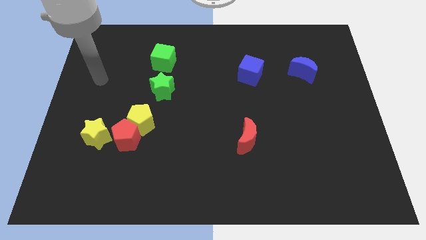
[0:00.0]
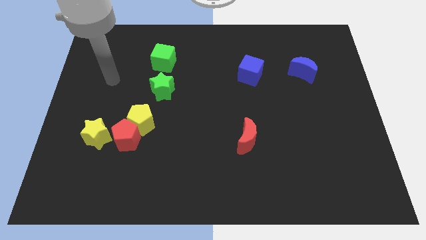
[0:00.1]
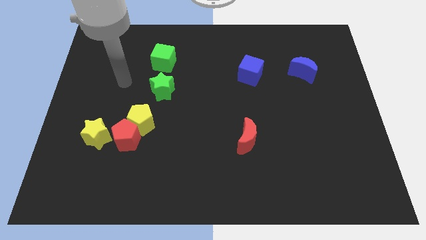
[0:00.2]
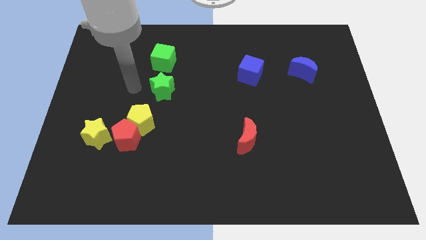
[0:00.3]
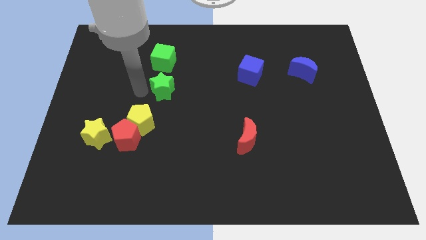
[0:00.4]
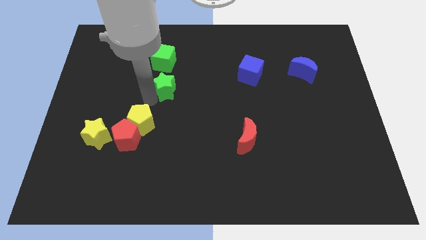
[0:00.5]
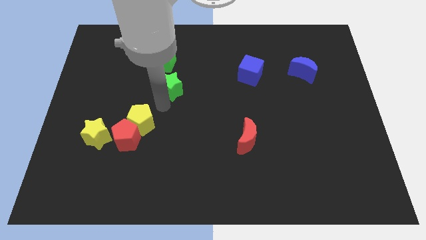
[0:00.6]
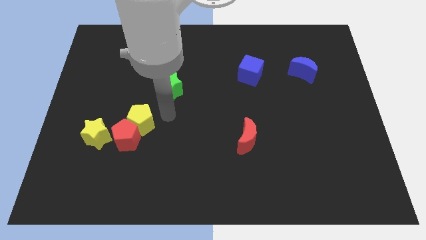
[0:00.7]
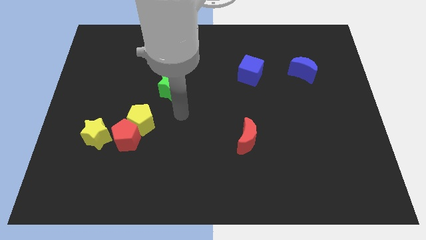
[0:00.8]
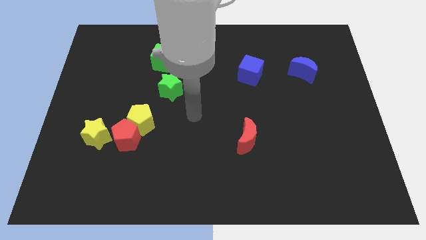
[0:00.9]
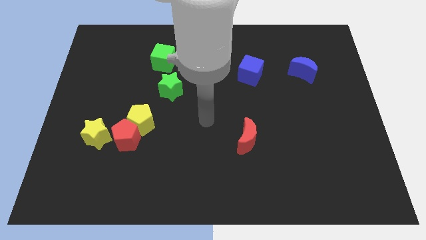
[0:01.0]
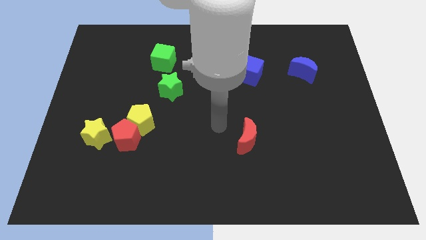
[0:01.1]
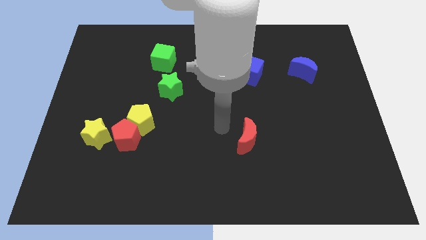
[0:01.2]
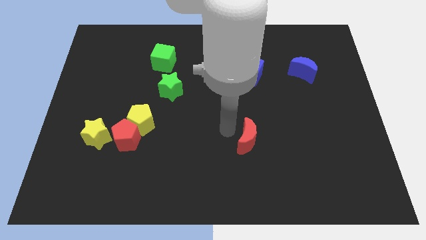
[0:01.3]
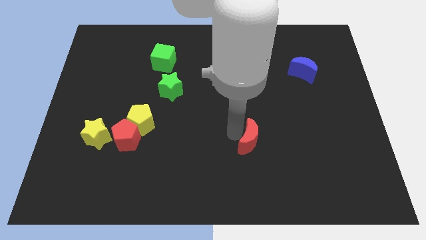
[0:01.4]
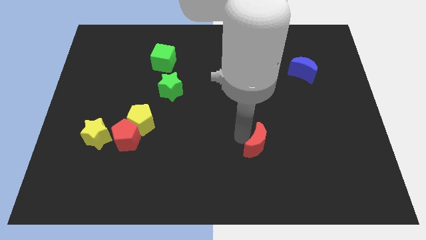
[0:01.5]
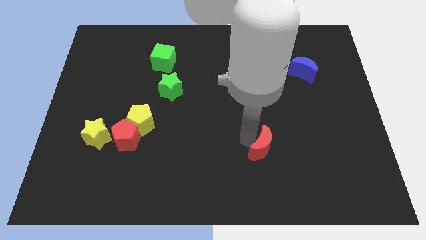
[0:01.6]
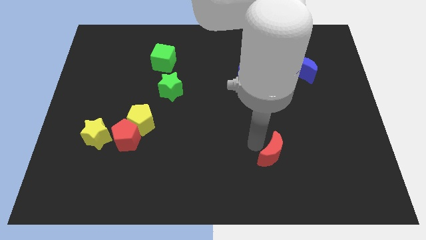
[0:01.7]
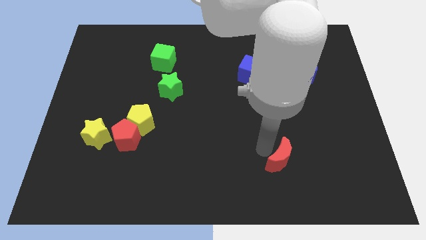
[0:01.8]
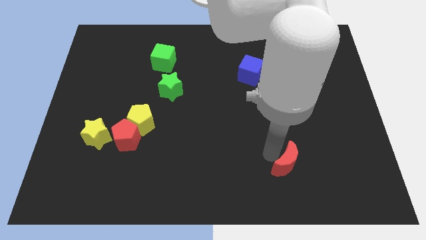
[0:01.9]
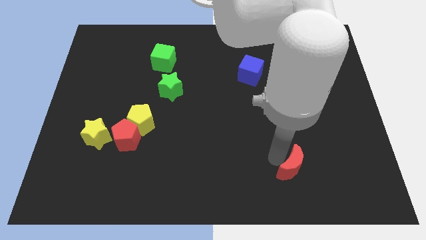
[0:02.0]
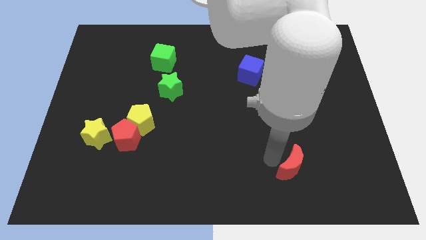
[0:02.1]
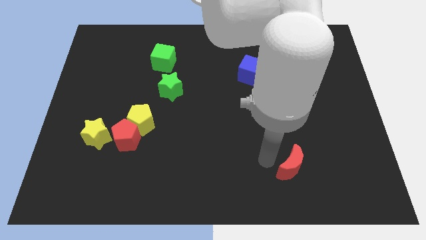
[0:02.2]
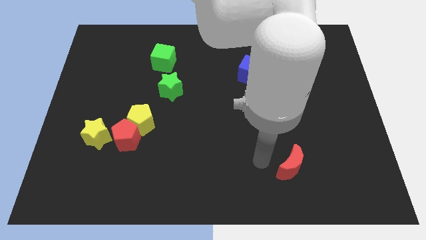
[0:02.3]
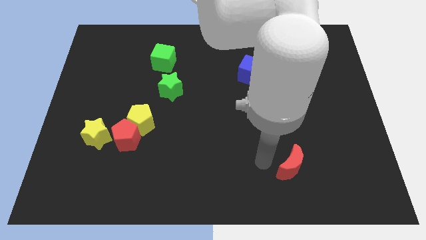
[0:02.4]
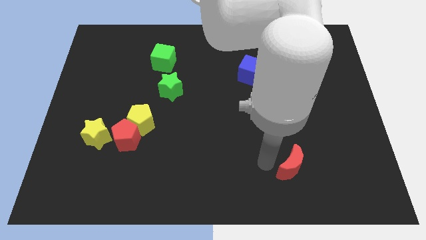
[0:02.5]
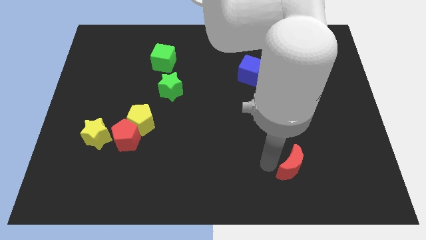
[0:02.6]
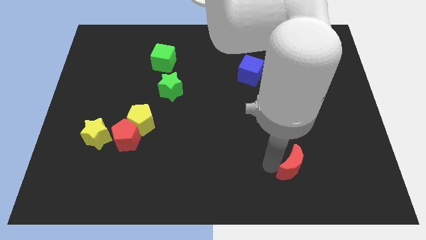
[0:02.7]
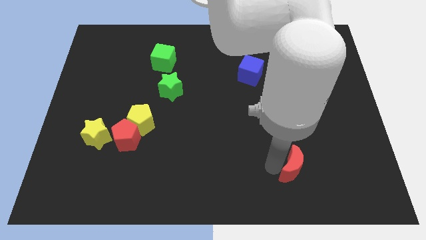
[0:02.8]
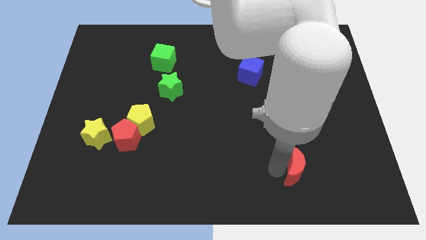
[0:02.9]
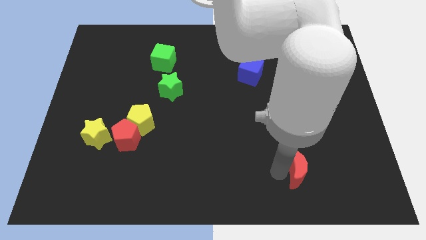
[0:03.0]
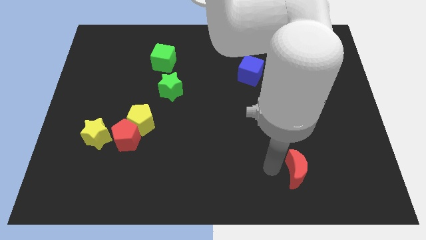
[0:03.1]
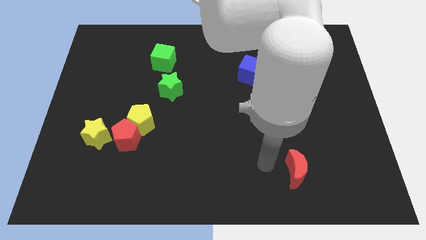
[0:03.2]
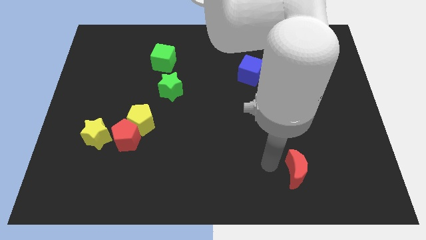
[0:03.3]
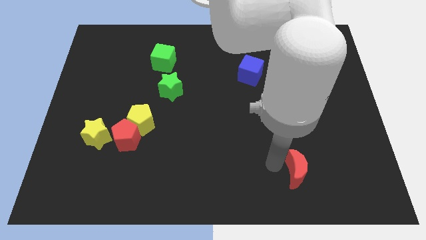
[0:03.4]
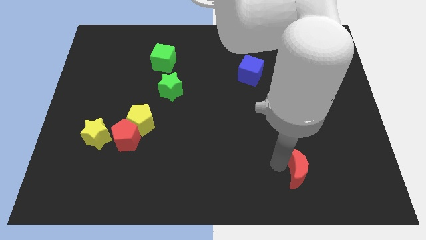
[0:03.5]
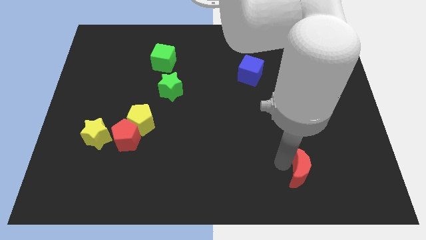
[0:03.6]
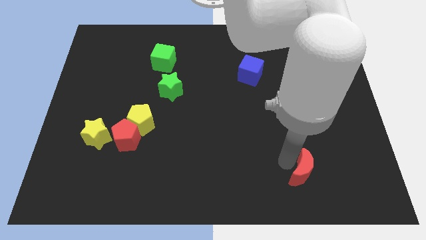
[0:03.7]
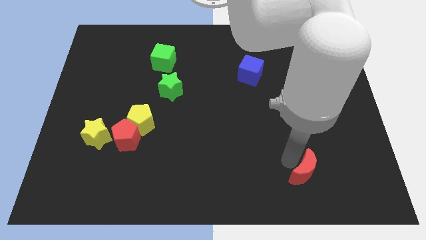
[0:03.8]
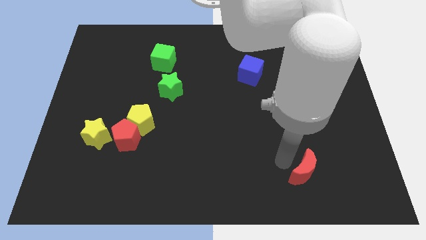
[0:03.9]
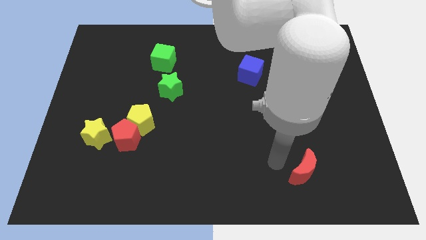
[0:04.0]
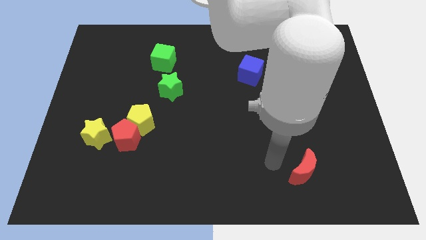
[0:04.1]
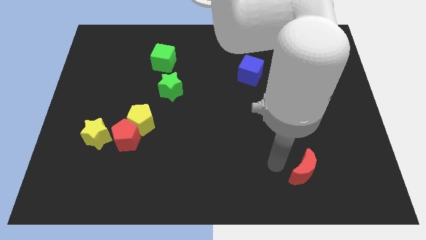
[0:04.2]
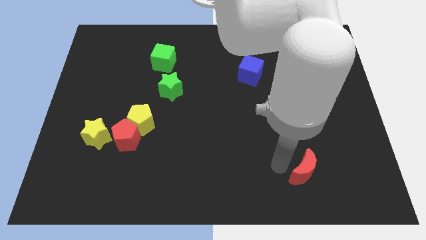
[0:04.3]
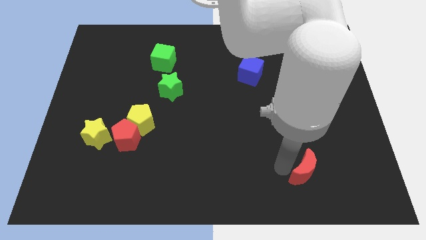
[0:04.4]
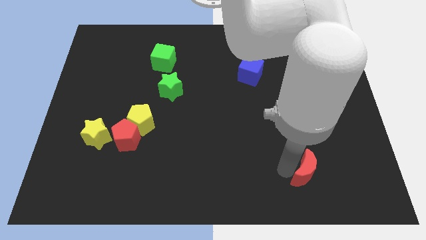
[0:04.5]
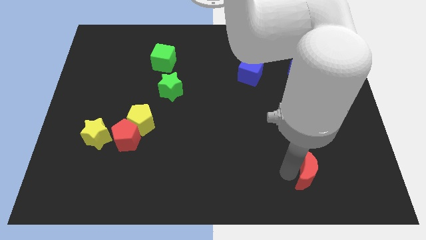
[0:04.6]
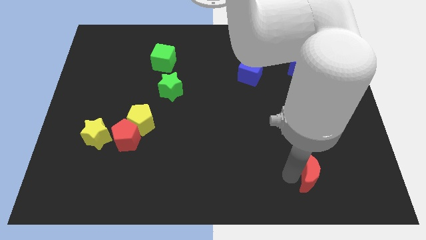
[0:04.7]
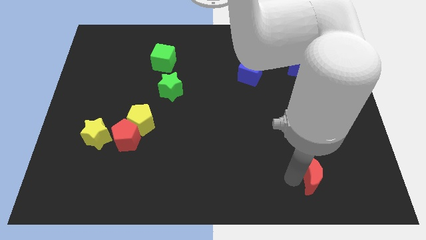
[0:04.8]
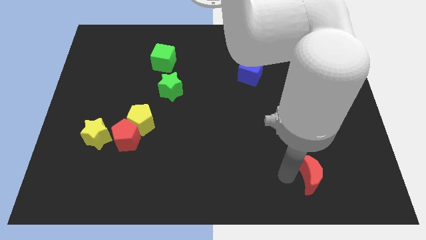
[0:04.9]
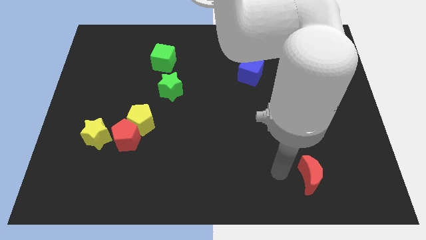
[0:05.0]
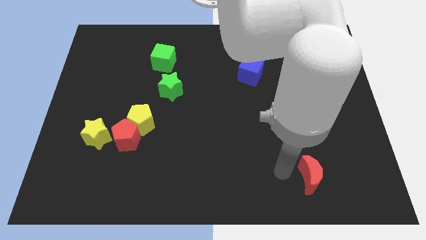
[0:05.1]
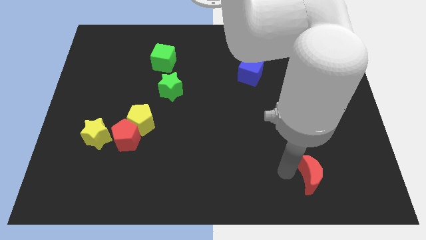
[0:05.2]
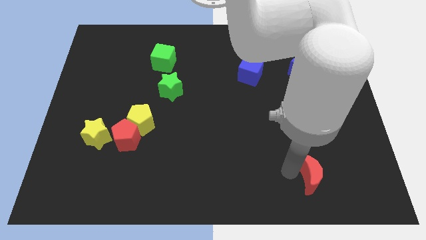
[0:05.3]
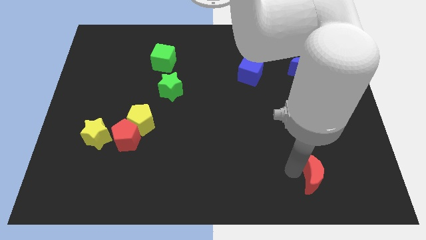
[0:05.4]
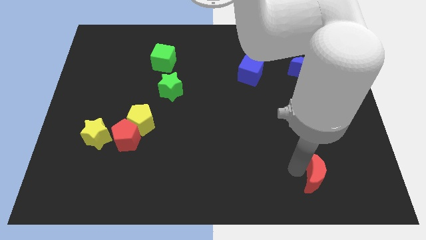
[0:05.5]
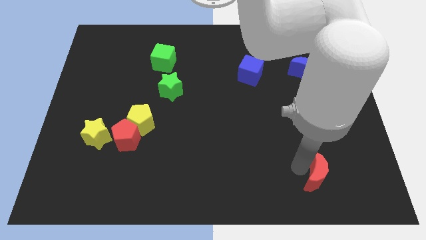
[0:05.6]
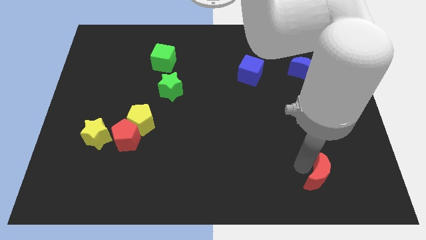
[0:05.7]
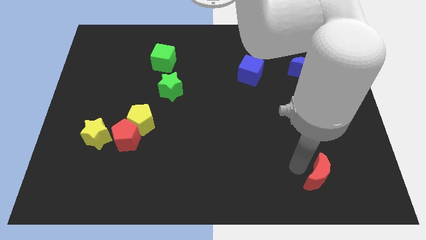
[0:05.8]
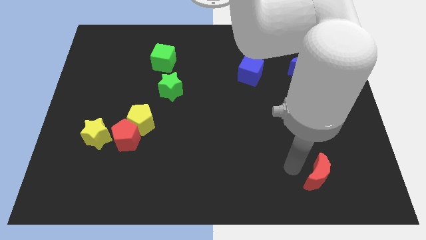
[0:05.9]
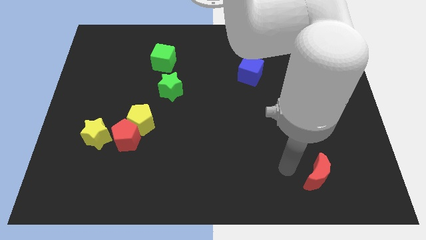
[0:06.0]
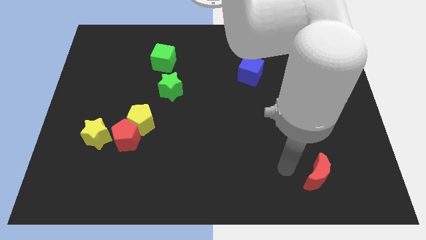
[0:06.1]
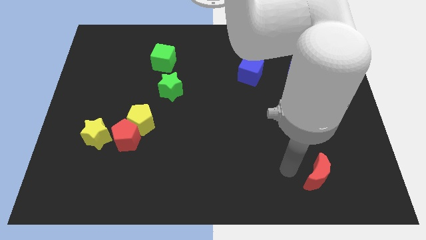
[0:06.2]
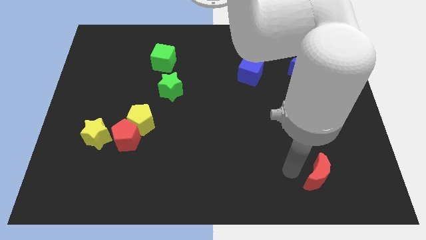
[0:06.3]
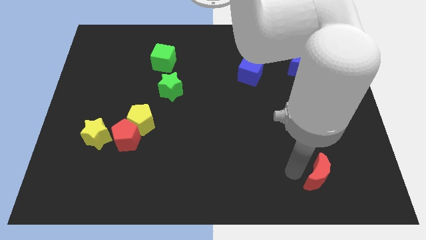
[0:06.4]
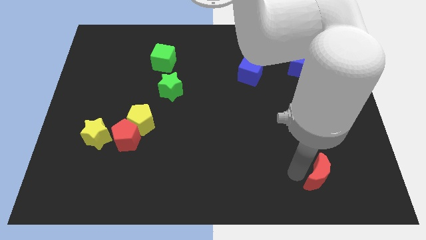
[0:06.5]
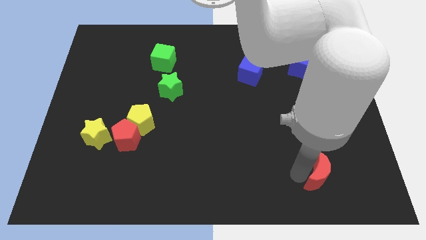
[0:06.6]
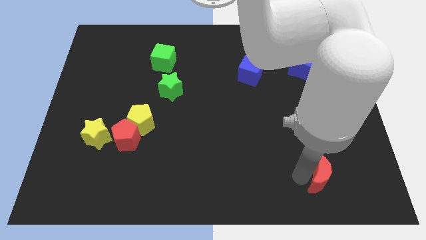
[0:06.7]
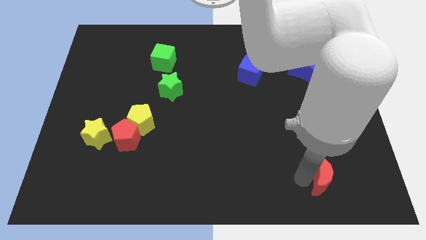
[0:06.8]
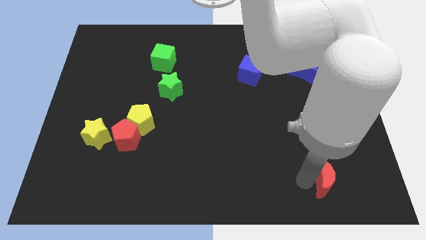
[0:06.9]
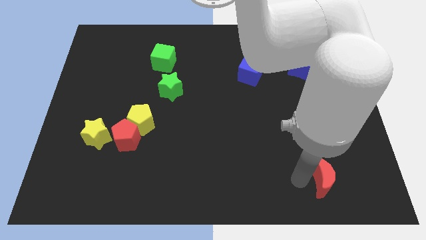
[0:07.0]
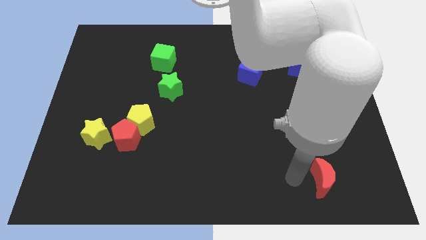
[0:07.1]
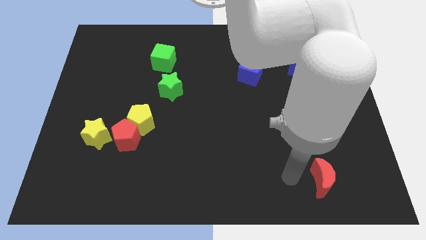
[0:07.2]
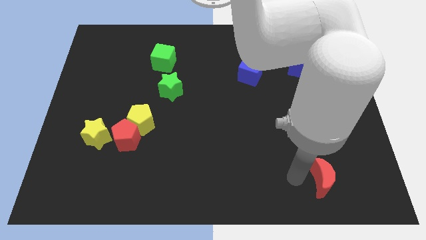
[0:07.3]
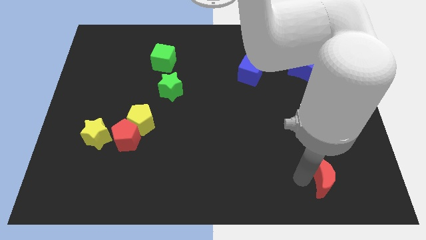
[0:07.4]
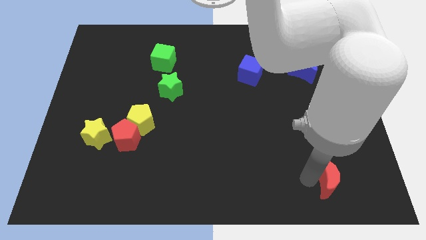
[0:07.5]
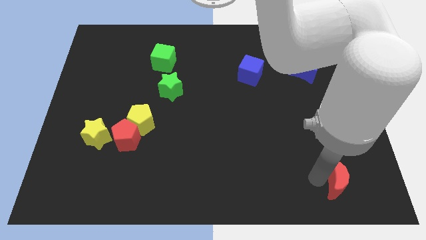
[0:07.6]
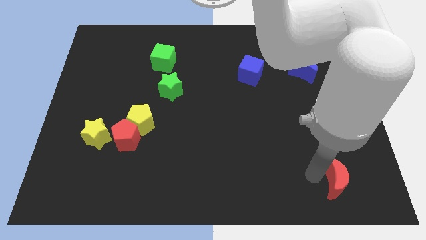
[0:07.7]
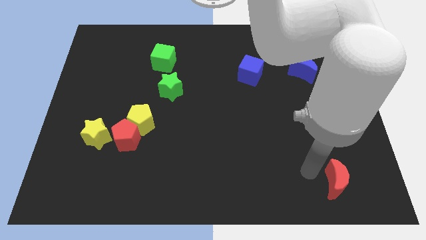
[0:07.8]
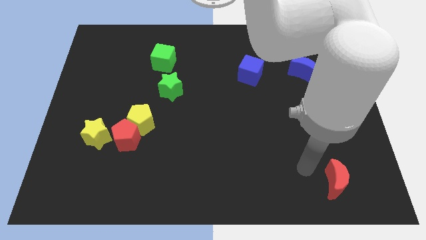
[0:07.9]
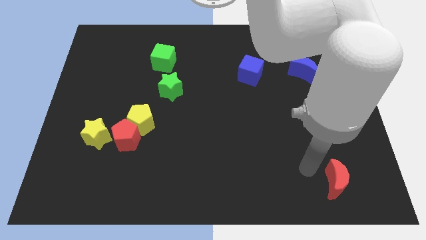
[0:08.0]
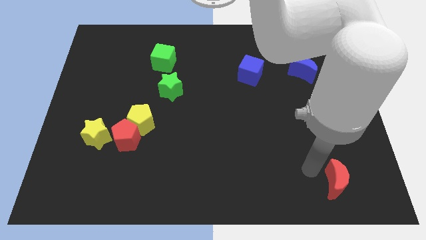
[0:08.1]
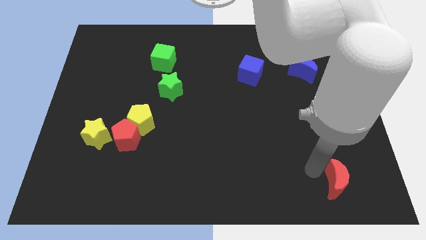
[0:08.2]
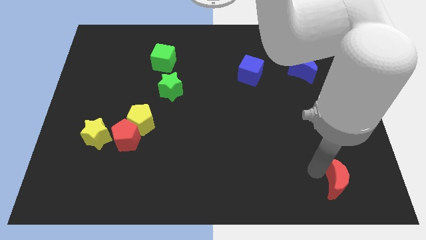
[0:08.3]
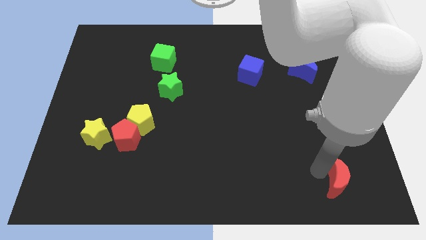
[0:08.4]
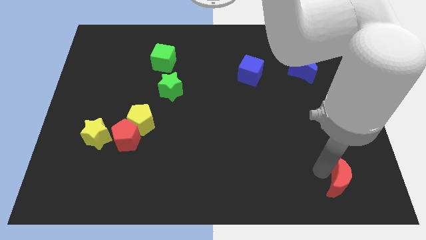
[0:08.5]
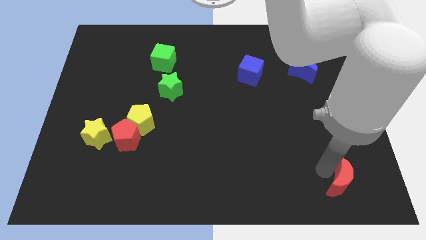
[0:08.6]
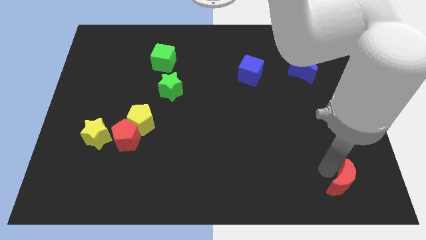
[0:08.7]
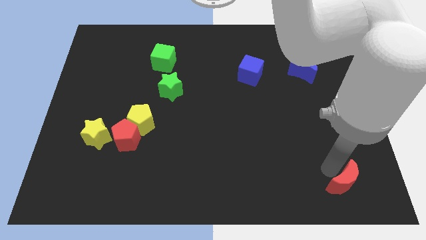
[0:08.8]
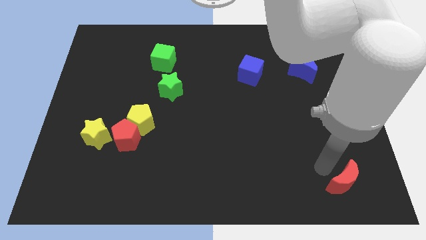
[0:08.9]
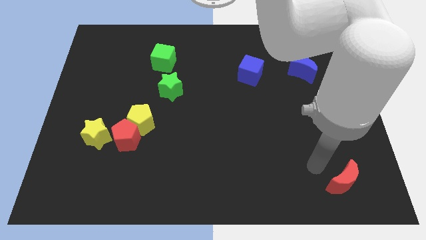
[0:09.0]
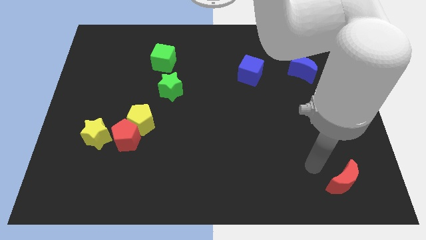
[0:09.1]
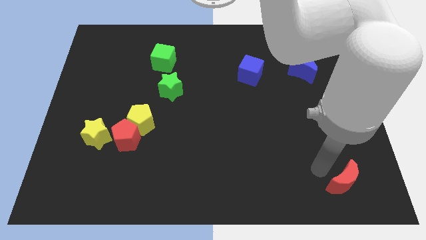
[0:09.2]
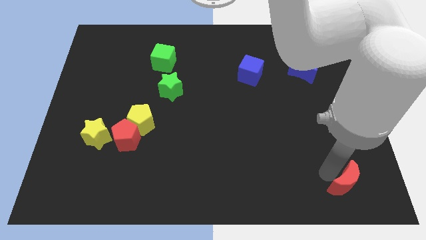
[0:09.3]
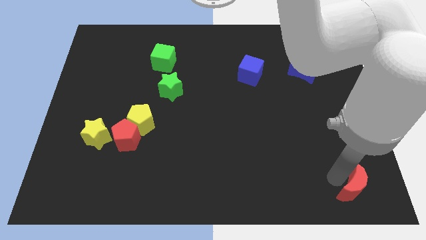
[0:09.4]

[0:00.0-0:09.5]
slide the red moon to the lower right corner
